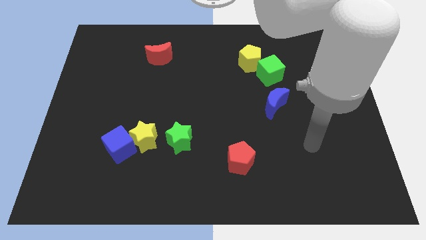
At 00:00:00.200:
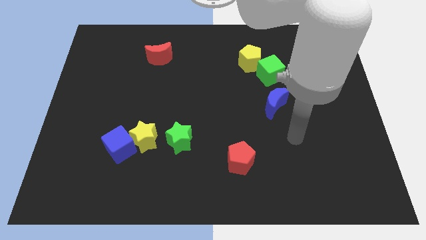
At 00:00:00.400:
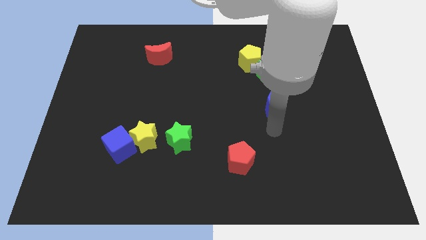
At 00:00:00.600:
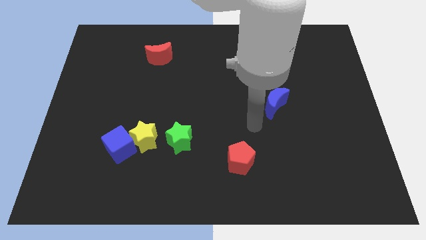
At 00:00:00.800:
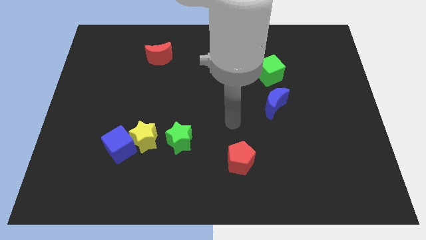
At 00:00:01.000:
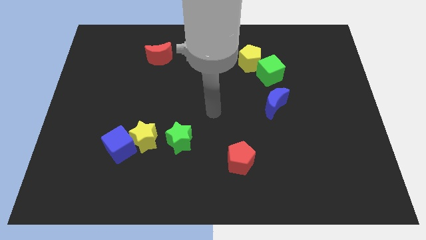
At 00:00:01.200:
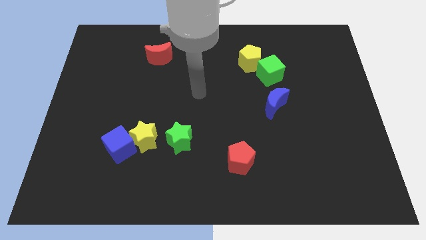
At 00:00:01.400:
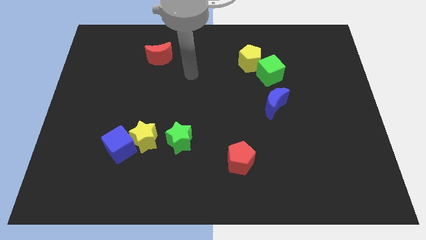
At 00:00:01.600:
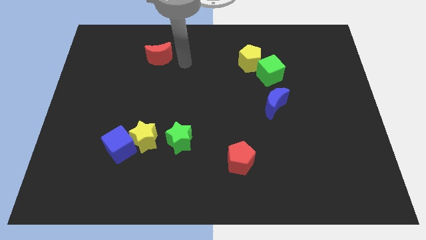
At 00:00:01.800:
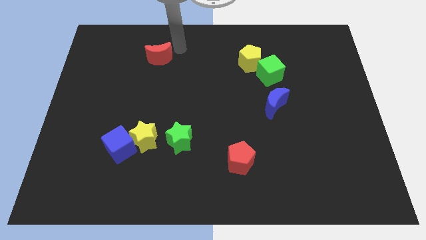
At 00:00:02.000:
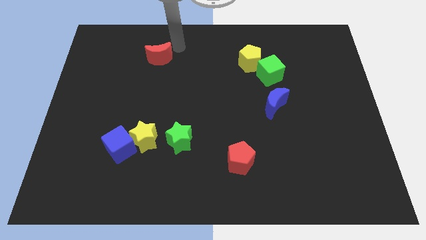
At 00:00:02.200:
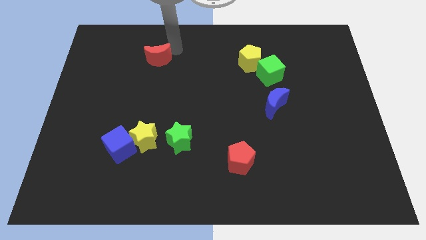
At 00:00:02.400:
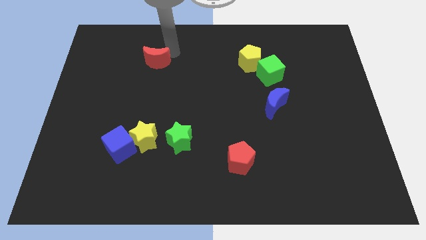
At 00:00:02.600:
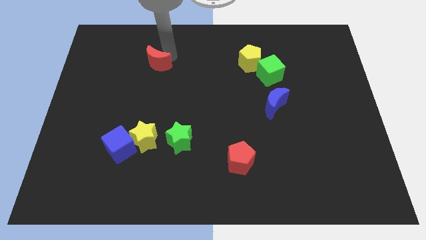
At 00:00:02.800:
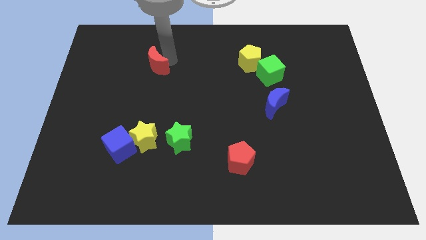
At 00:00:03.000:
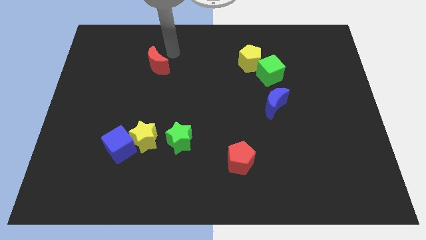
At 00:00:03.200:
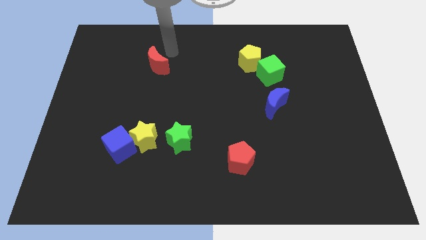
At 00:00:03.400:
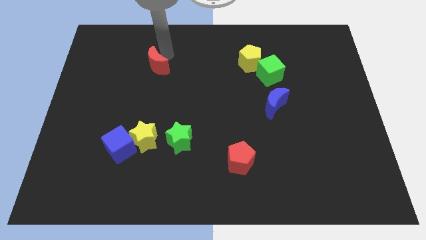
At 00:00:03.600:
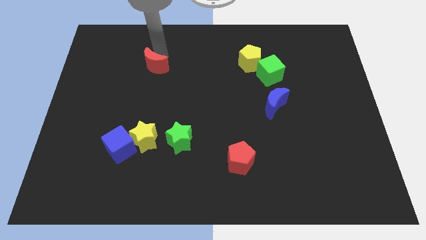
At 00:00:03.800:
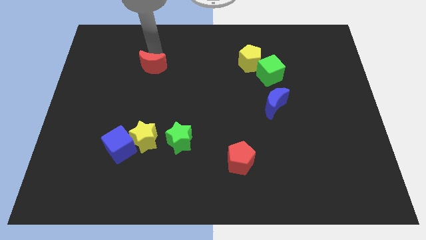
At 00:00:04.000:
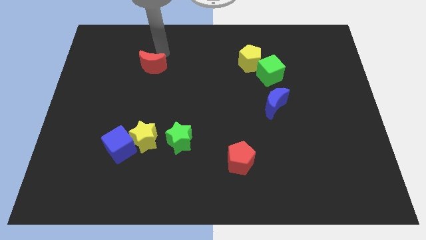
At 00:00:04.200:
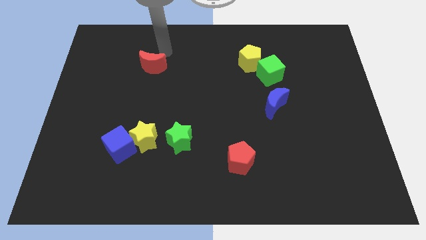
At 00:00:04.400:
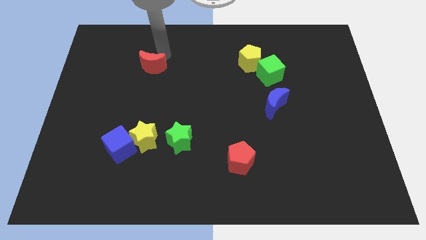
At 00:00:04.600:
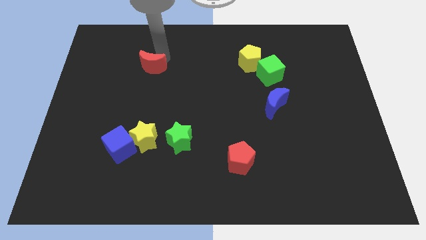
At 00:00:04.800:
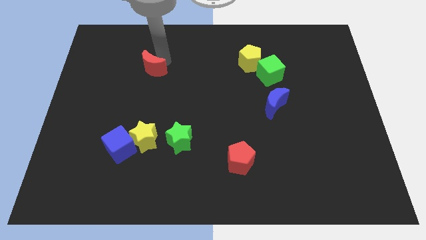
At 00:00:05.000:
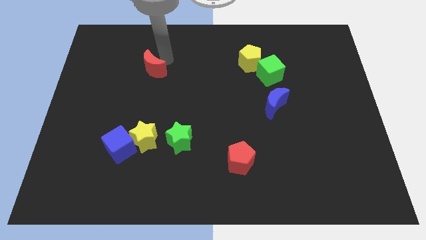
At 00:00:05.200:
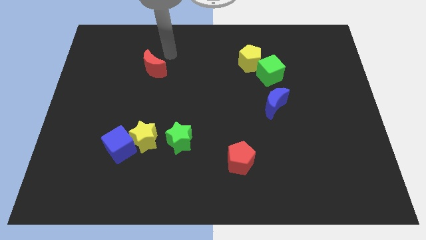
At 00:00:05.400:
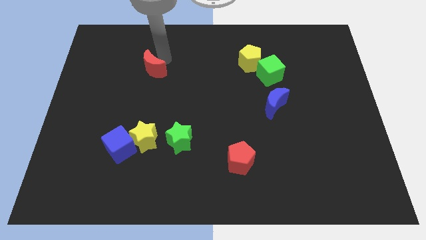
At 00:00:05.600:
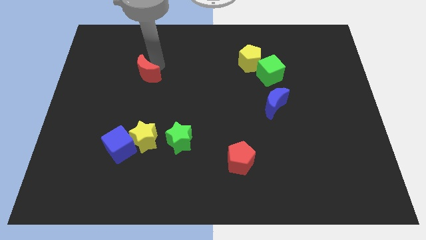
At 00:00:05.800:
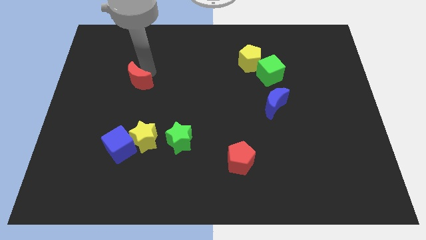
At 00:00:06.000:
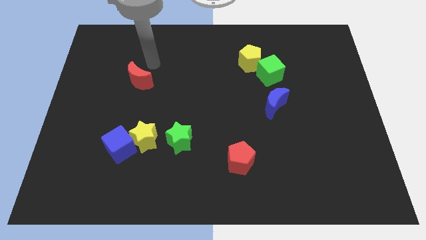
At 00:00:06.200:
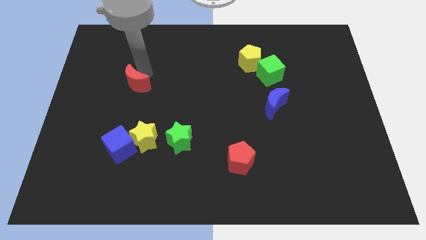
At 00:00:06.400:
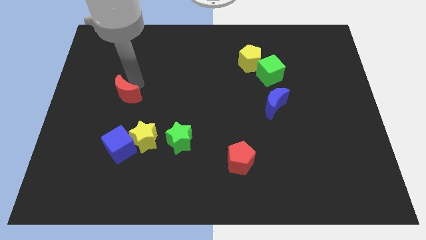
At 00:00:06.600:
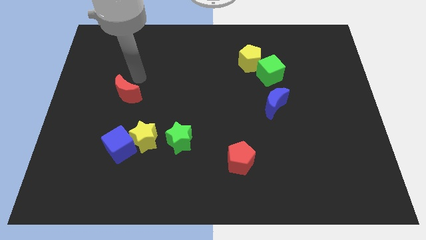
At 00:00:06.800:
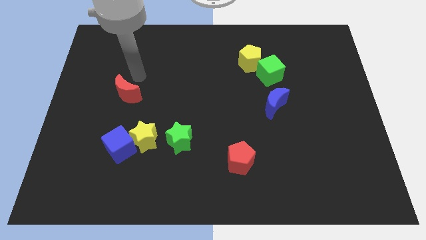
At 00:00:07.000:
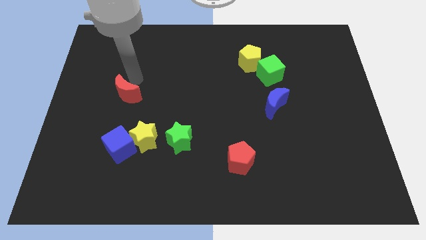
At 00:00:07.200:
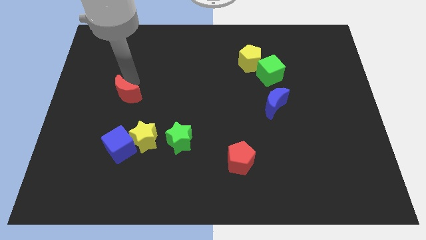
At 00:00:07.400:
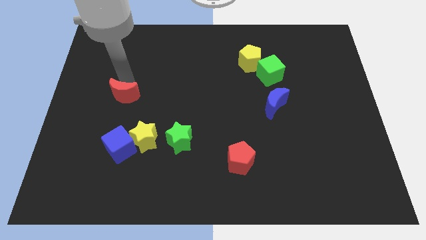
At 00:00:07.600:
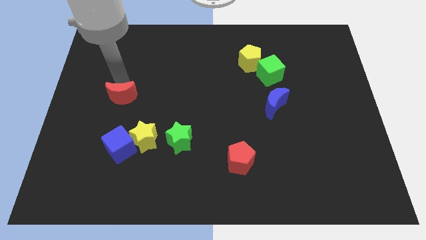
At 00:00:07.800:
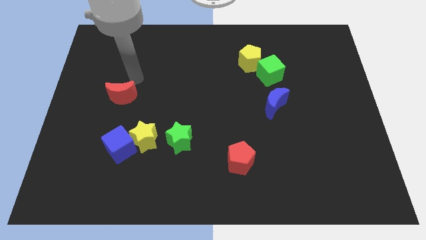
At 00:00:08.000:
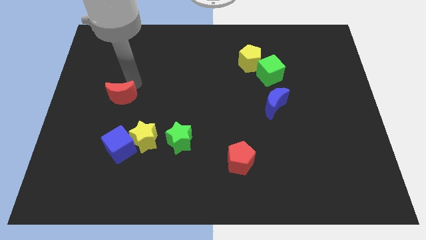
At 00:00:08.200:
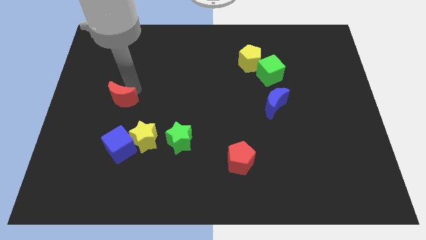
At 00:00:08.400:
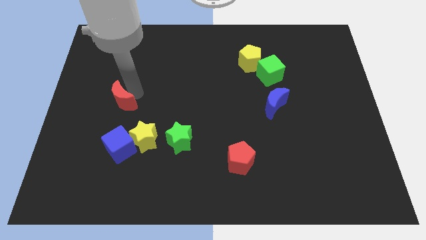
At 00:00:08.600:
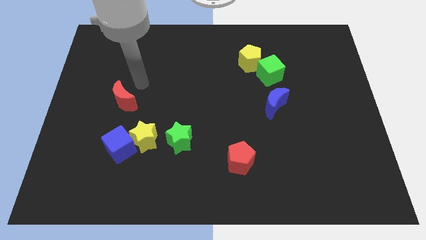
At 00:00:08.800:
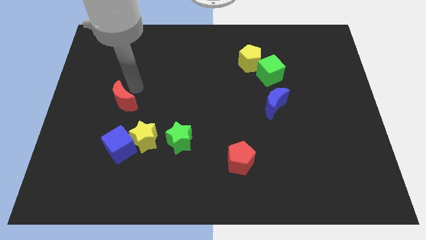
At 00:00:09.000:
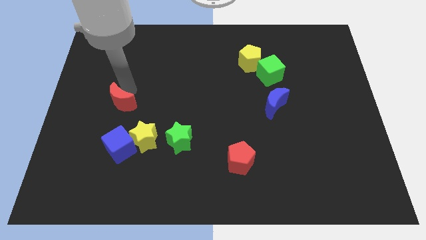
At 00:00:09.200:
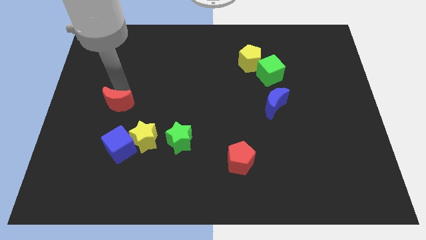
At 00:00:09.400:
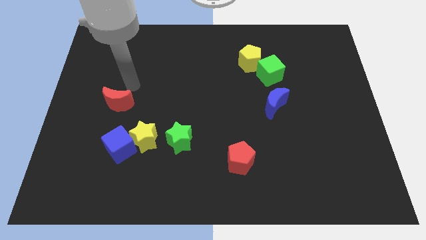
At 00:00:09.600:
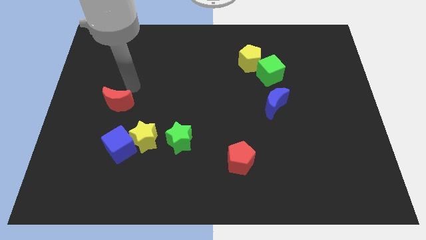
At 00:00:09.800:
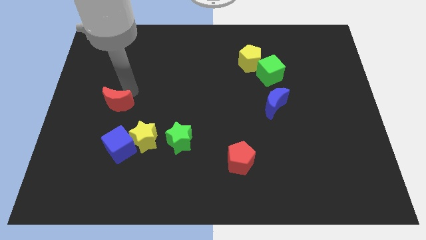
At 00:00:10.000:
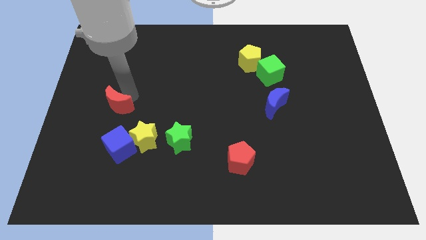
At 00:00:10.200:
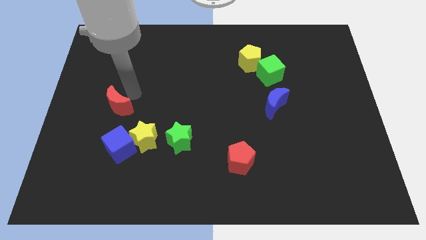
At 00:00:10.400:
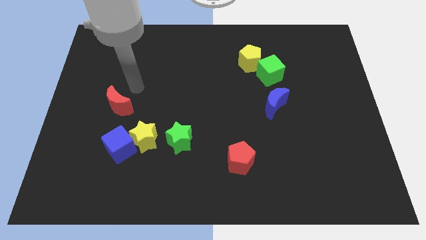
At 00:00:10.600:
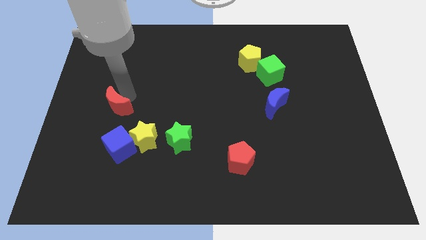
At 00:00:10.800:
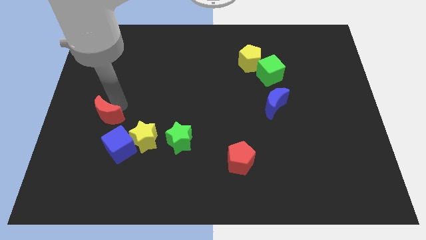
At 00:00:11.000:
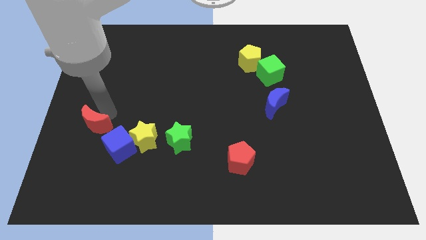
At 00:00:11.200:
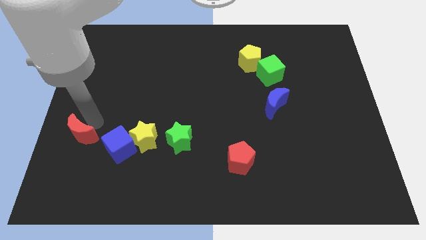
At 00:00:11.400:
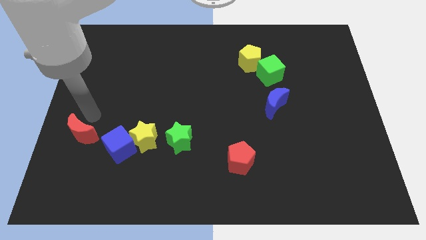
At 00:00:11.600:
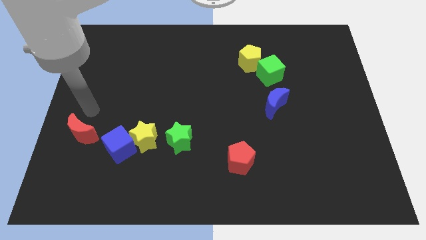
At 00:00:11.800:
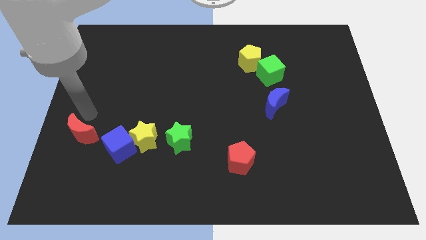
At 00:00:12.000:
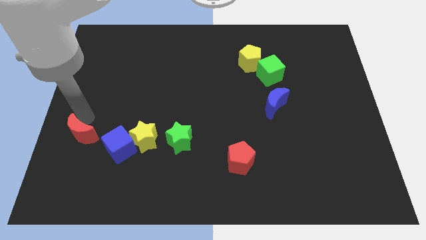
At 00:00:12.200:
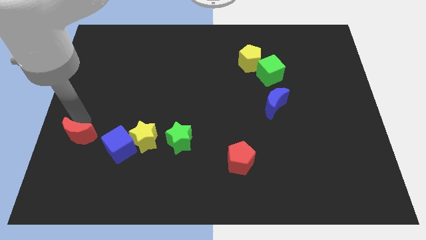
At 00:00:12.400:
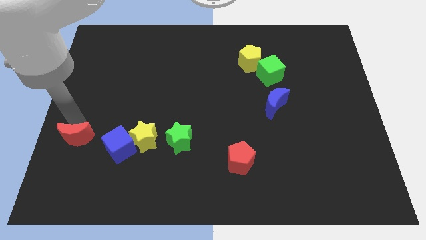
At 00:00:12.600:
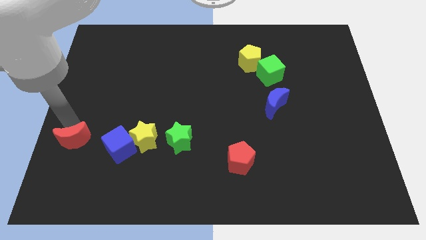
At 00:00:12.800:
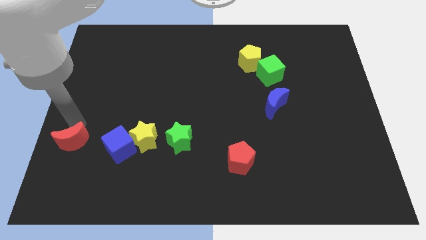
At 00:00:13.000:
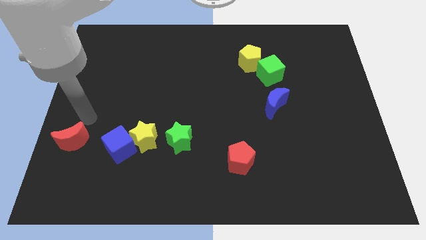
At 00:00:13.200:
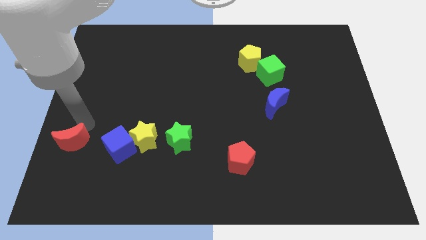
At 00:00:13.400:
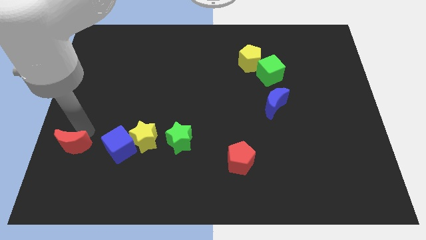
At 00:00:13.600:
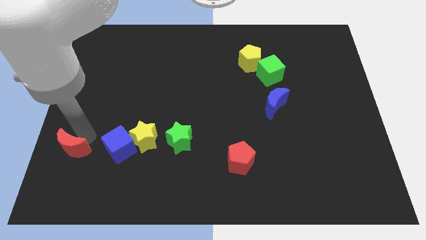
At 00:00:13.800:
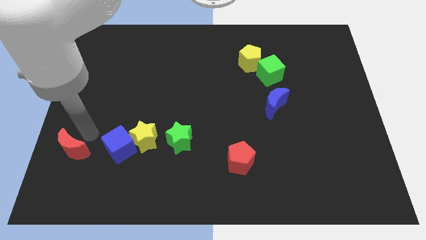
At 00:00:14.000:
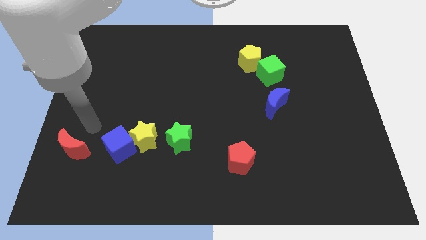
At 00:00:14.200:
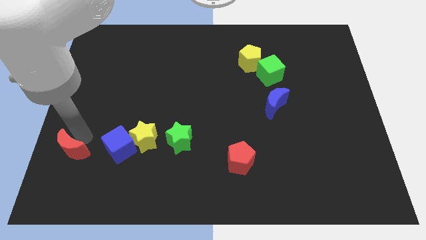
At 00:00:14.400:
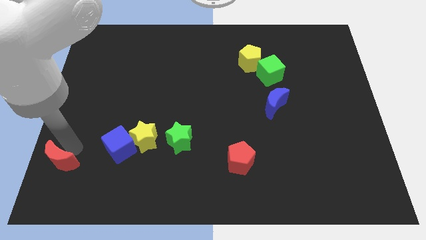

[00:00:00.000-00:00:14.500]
move the red moon to the bottom left of the board

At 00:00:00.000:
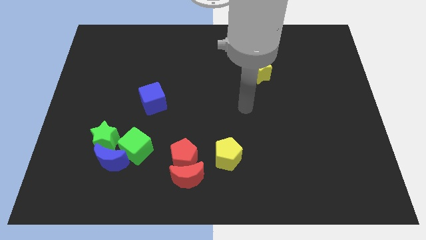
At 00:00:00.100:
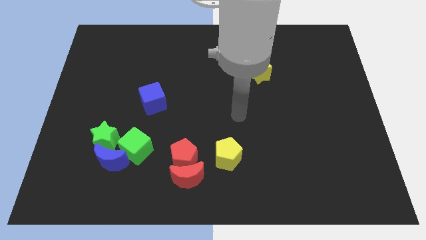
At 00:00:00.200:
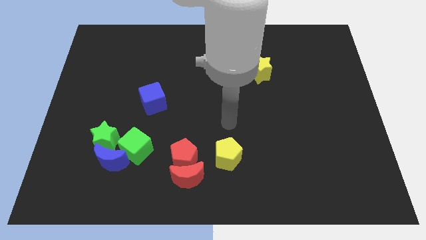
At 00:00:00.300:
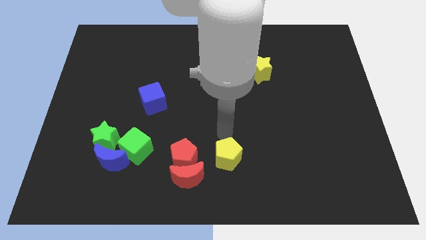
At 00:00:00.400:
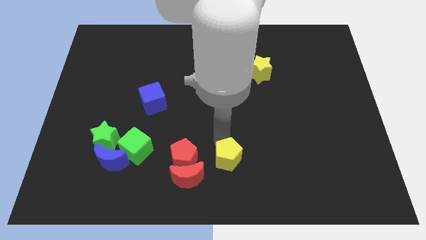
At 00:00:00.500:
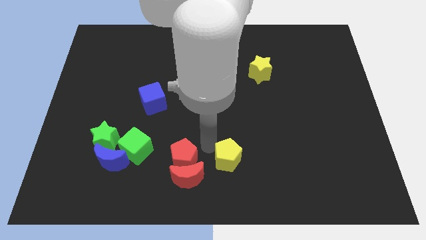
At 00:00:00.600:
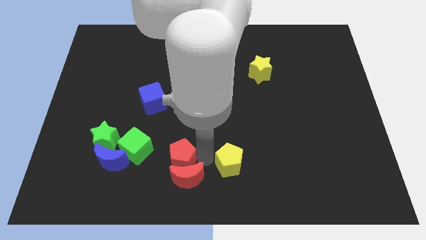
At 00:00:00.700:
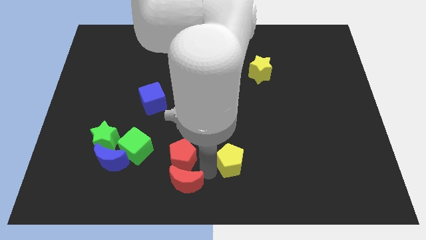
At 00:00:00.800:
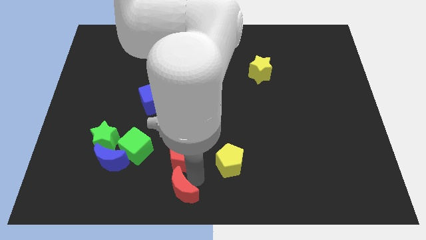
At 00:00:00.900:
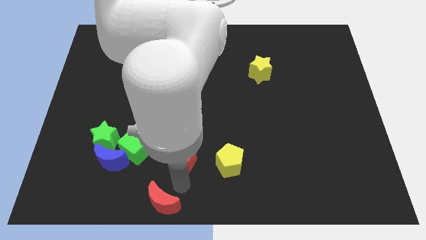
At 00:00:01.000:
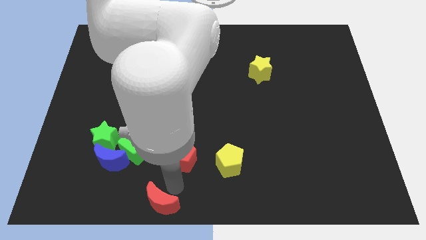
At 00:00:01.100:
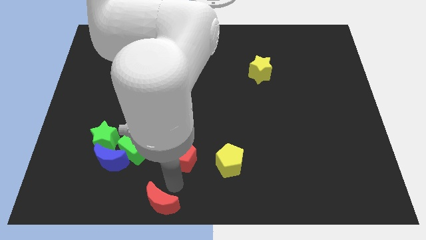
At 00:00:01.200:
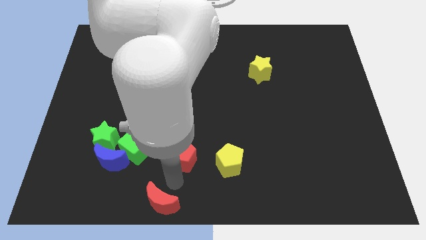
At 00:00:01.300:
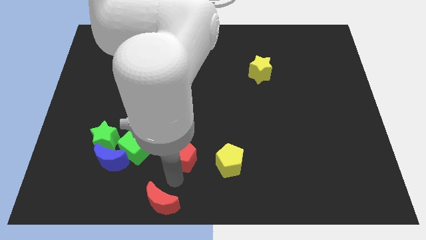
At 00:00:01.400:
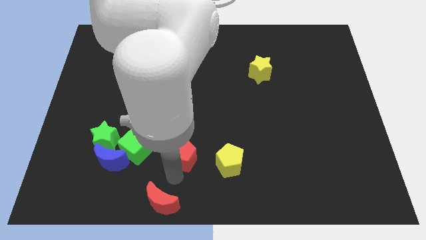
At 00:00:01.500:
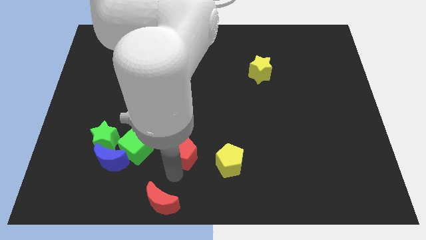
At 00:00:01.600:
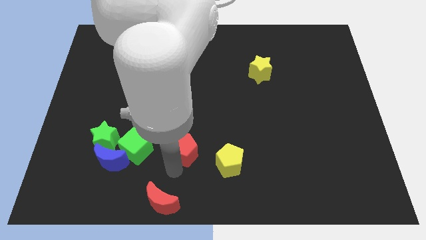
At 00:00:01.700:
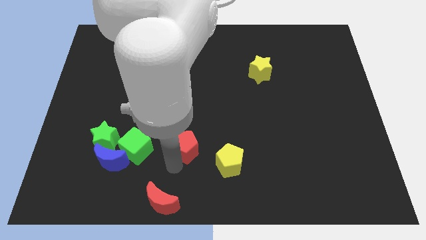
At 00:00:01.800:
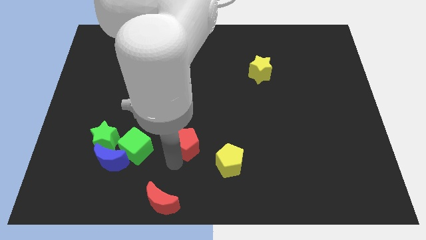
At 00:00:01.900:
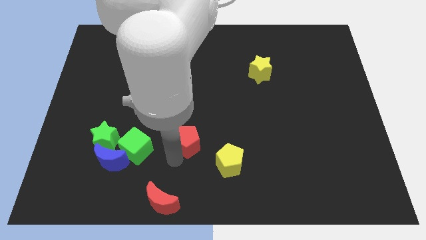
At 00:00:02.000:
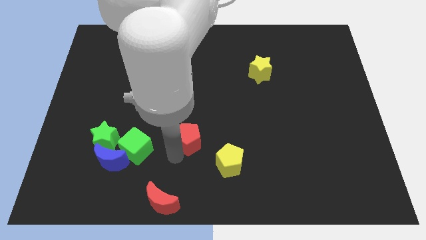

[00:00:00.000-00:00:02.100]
push the red pentagon to the center of the board
